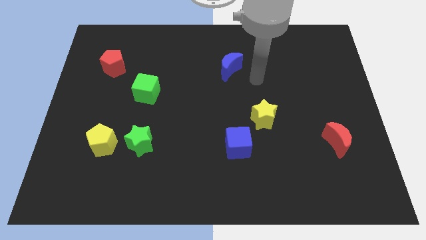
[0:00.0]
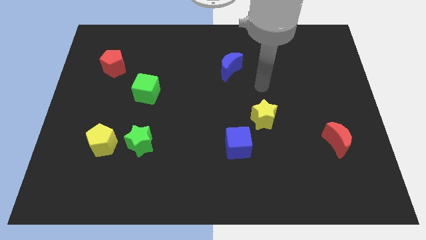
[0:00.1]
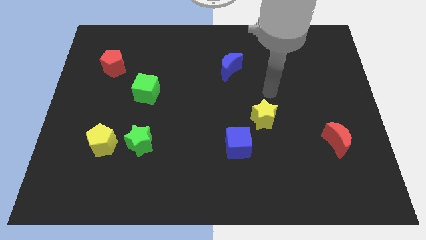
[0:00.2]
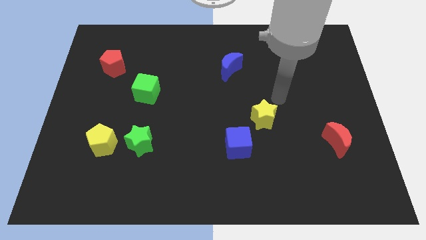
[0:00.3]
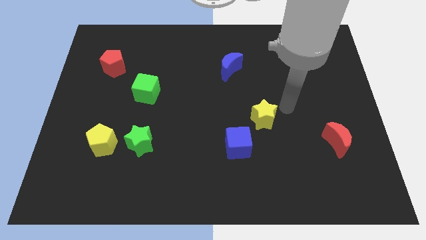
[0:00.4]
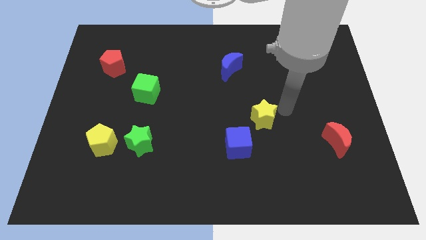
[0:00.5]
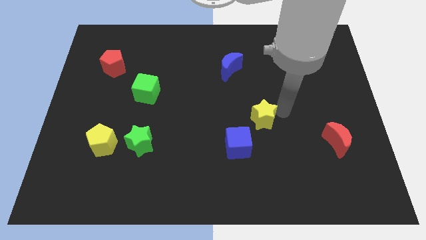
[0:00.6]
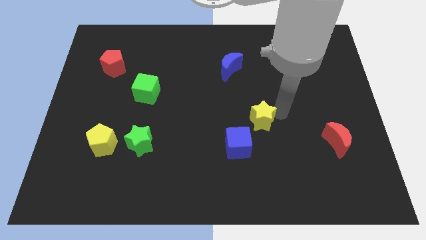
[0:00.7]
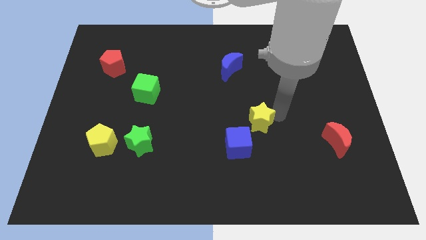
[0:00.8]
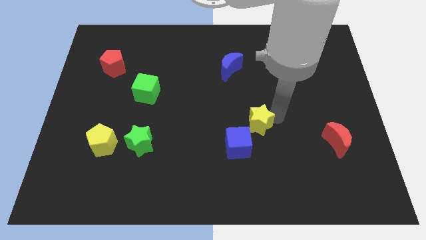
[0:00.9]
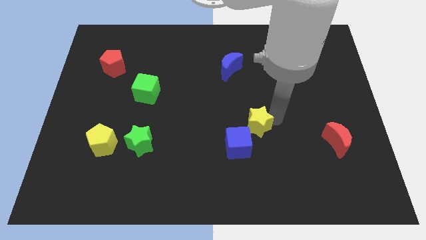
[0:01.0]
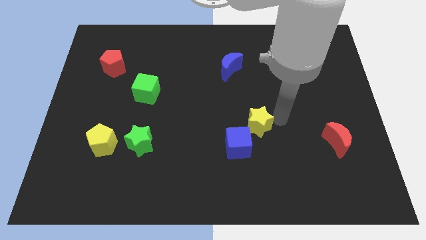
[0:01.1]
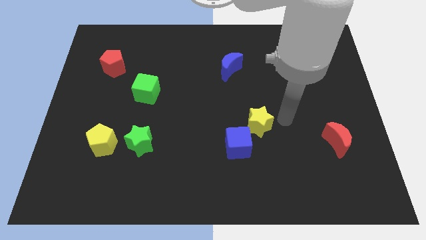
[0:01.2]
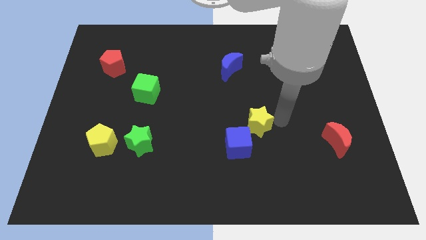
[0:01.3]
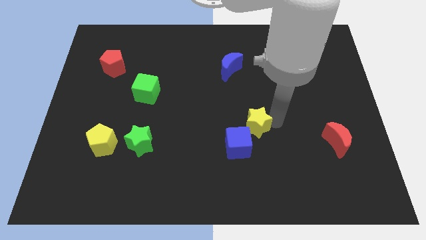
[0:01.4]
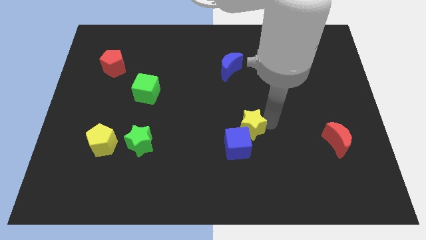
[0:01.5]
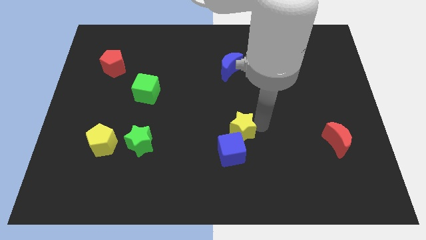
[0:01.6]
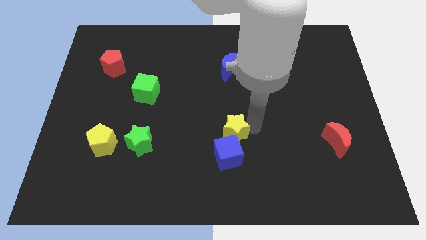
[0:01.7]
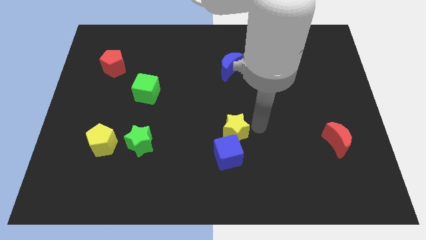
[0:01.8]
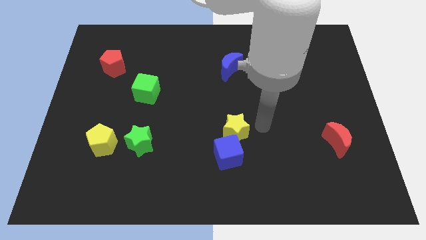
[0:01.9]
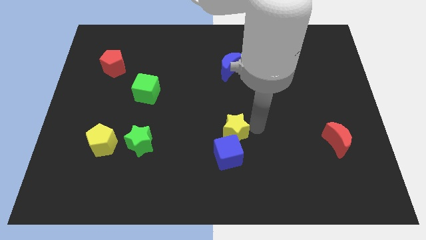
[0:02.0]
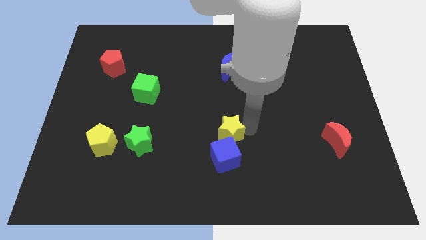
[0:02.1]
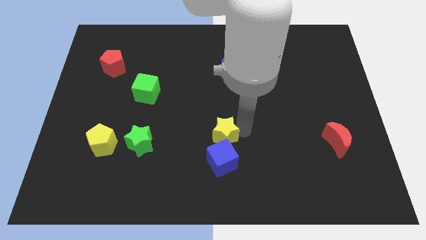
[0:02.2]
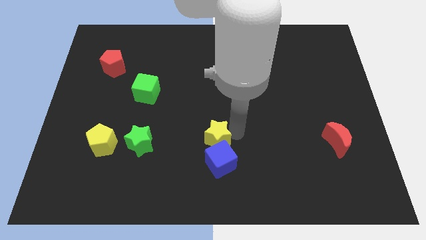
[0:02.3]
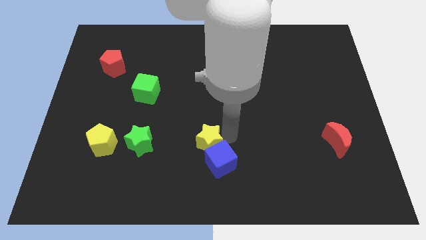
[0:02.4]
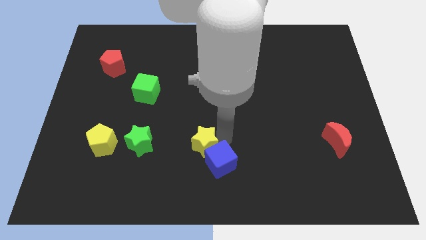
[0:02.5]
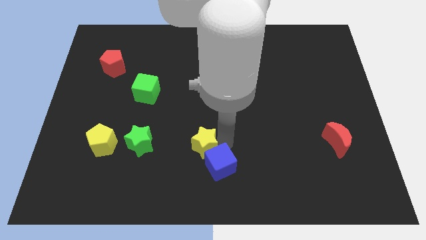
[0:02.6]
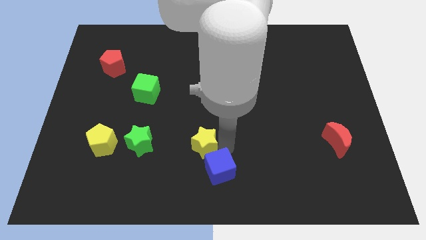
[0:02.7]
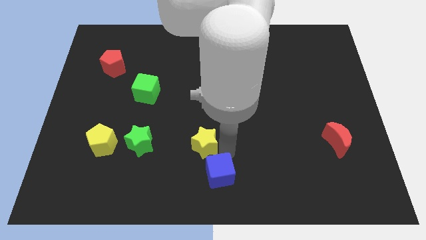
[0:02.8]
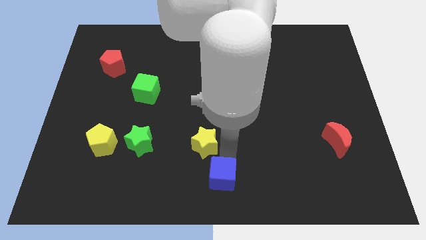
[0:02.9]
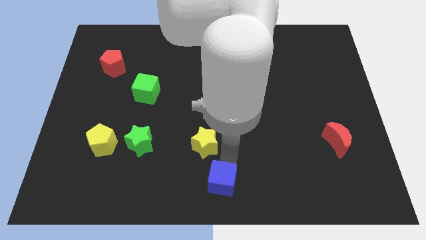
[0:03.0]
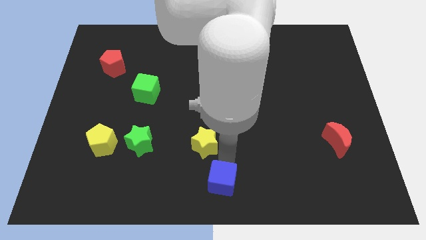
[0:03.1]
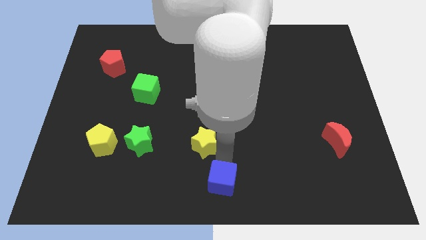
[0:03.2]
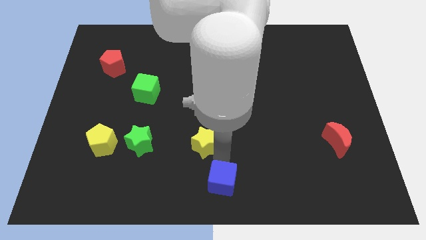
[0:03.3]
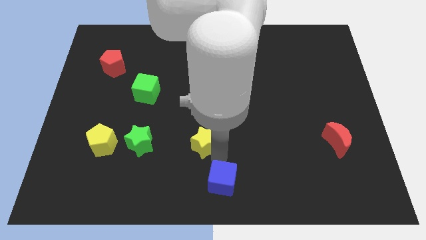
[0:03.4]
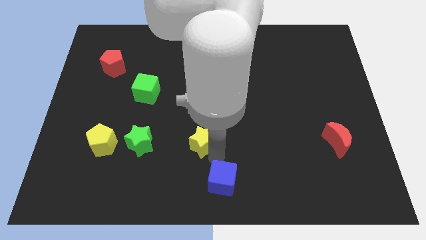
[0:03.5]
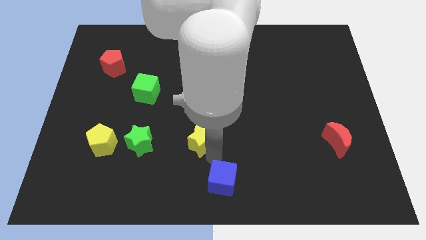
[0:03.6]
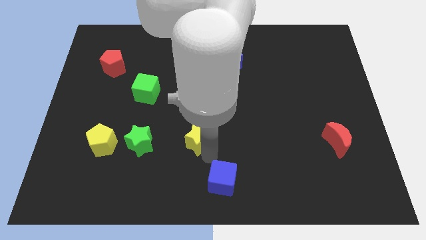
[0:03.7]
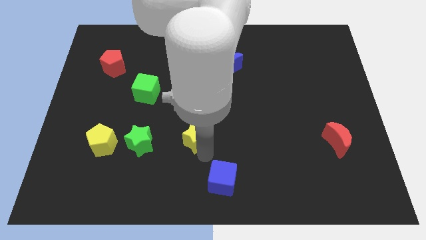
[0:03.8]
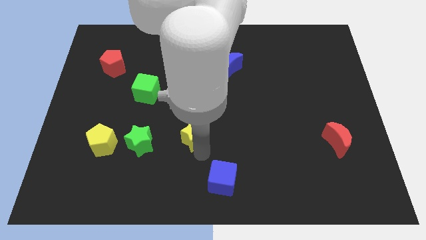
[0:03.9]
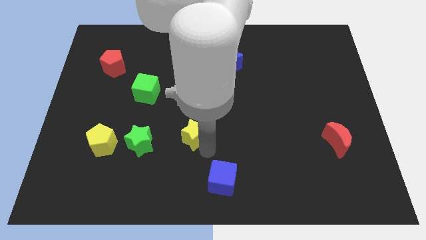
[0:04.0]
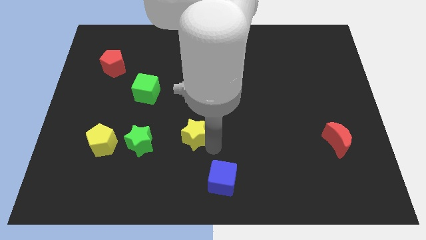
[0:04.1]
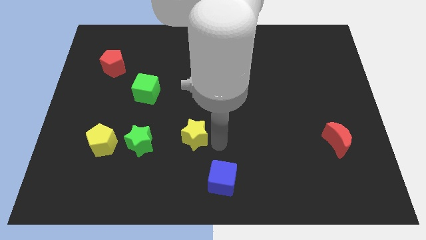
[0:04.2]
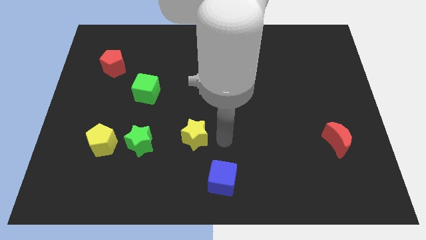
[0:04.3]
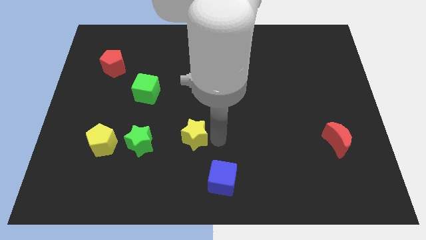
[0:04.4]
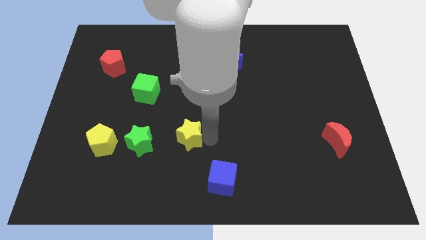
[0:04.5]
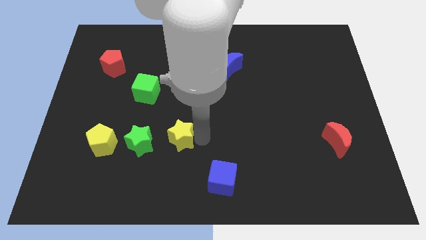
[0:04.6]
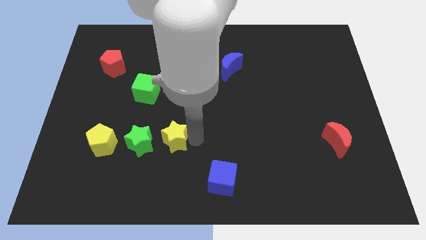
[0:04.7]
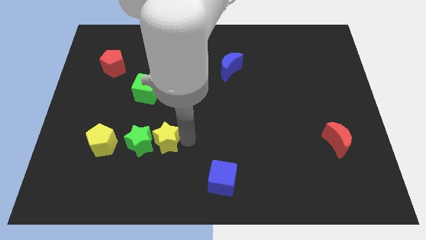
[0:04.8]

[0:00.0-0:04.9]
put the yellow star next to the green star

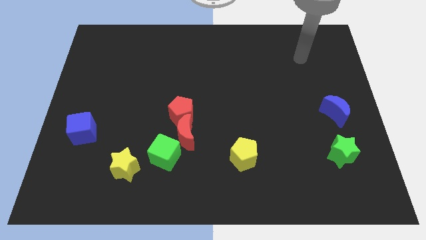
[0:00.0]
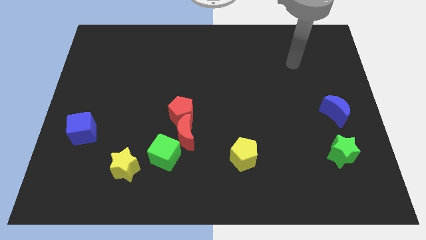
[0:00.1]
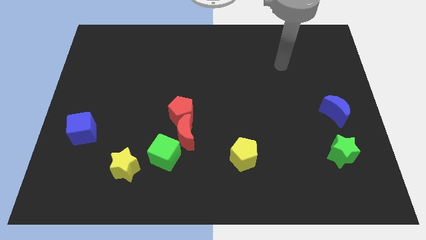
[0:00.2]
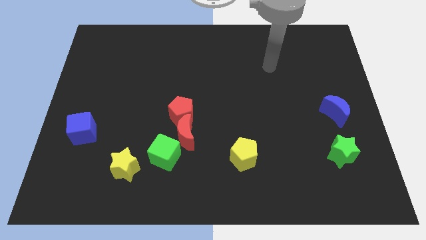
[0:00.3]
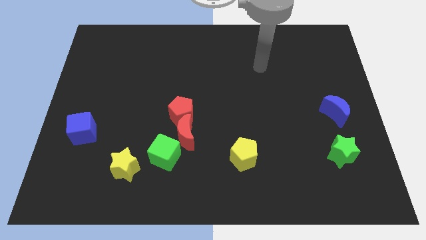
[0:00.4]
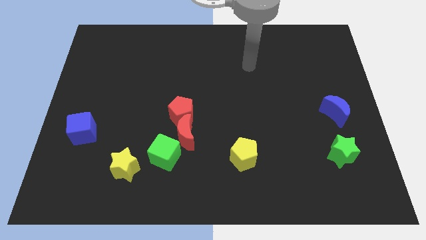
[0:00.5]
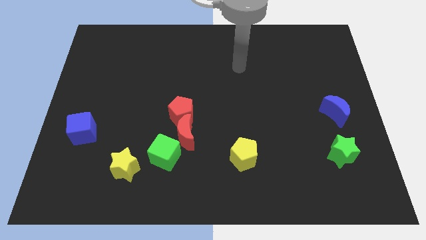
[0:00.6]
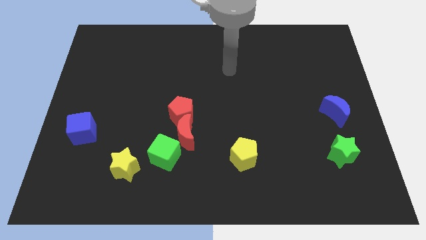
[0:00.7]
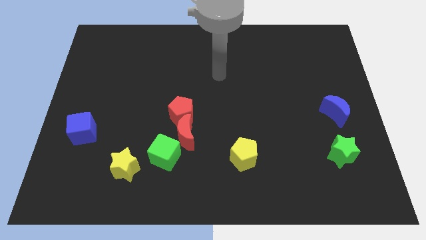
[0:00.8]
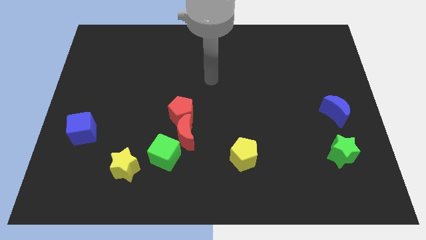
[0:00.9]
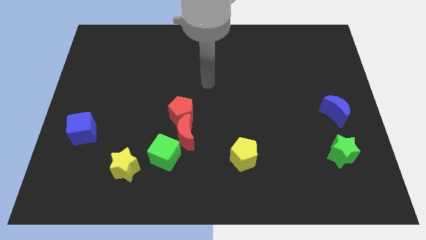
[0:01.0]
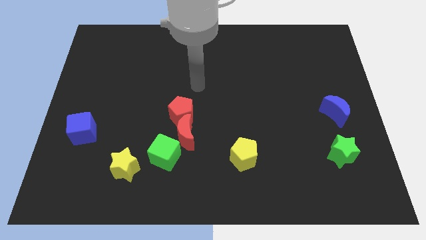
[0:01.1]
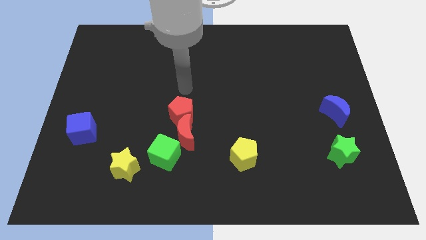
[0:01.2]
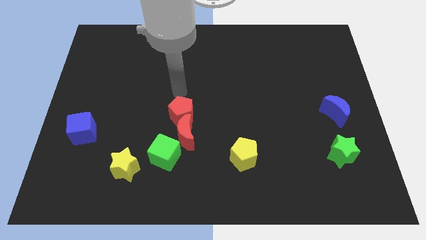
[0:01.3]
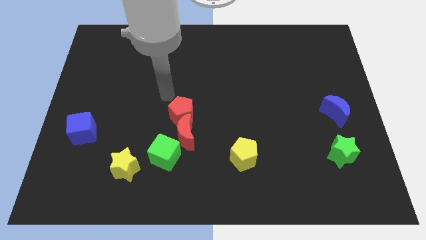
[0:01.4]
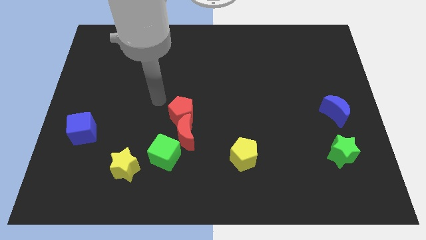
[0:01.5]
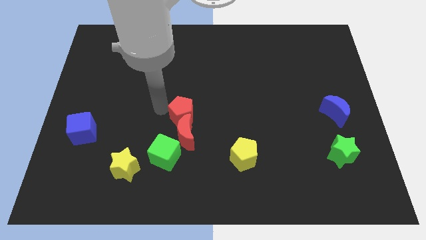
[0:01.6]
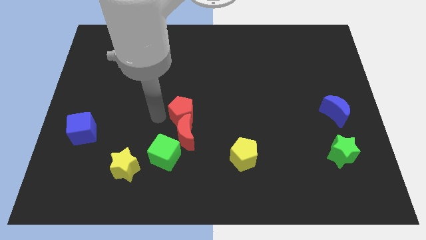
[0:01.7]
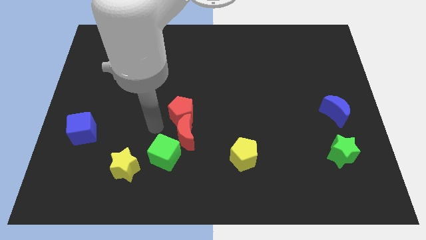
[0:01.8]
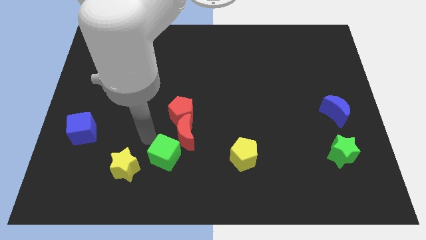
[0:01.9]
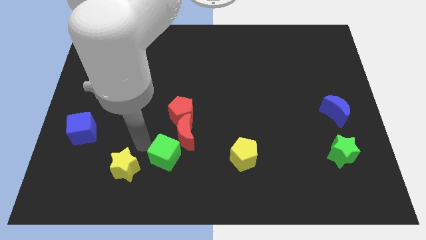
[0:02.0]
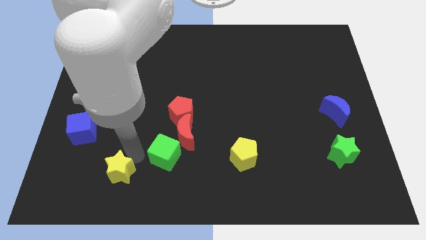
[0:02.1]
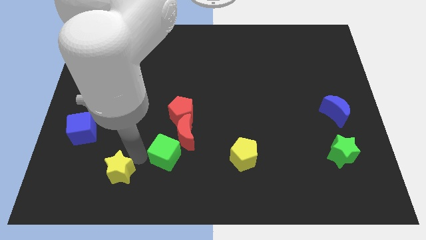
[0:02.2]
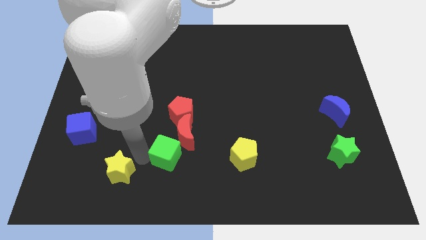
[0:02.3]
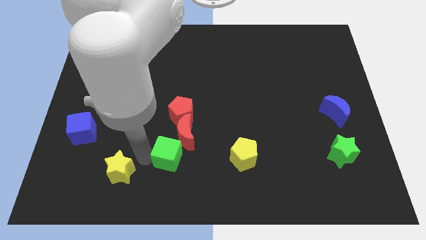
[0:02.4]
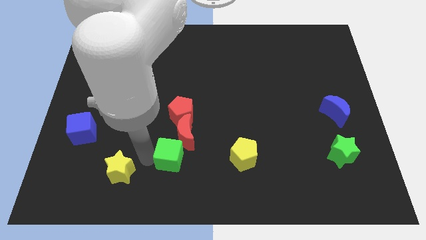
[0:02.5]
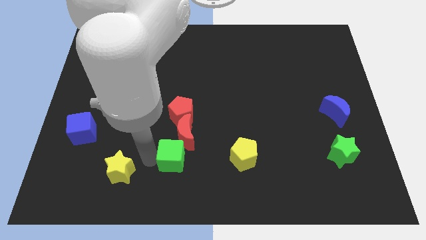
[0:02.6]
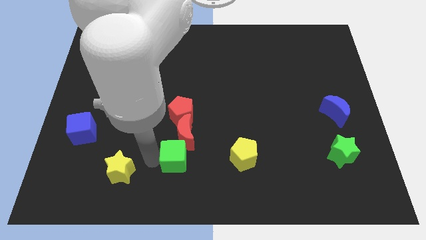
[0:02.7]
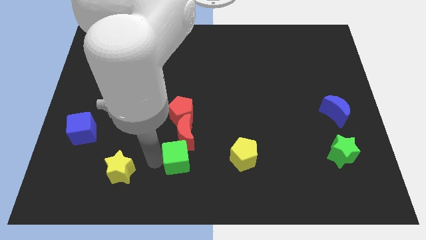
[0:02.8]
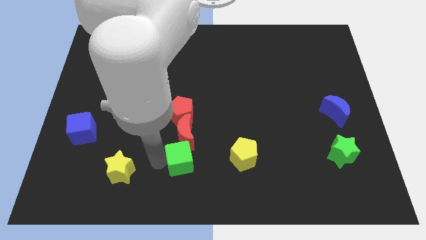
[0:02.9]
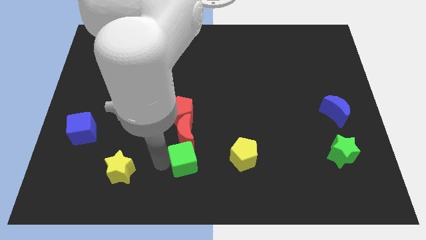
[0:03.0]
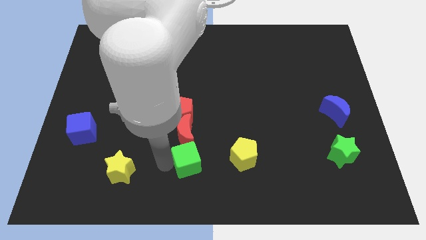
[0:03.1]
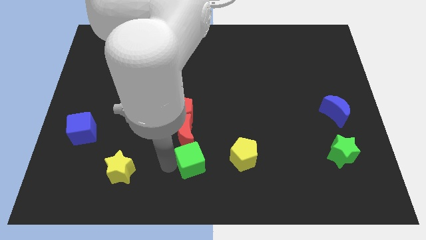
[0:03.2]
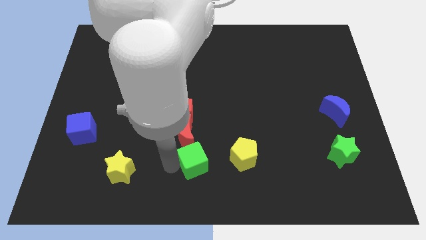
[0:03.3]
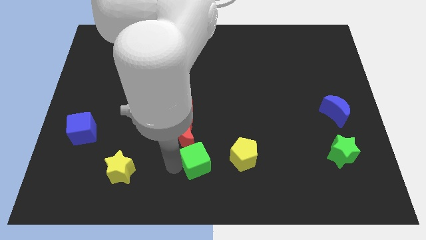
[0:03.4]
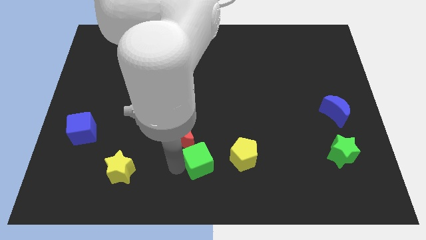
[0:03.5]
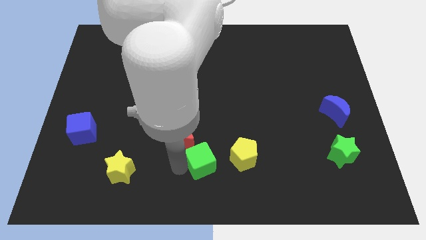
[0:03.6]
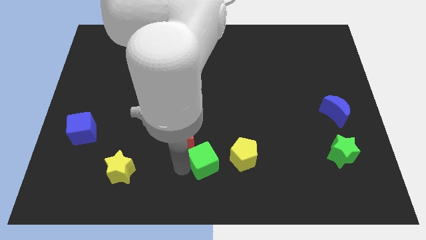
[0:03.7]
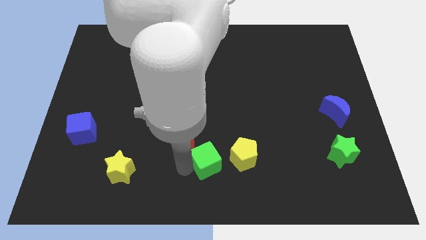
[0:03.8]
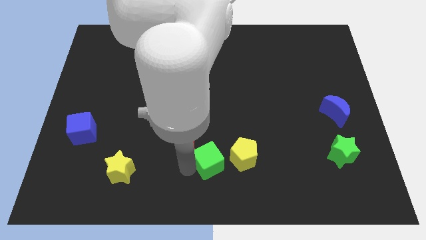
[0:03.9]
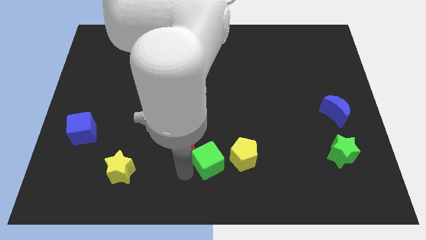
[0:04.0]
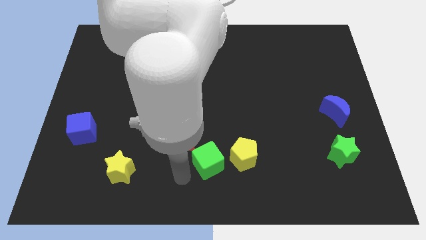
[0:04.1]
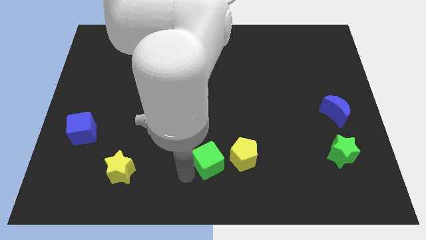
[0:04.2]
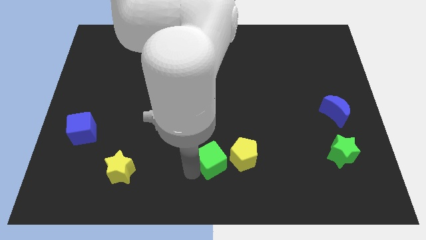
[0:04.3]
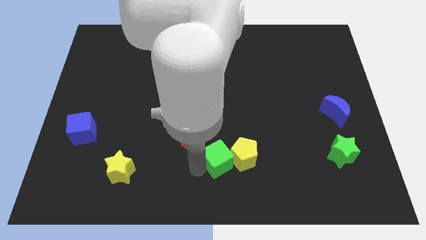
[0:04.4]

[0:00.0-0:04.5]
put the green cube next to the yellow pentagon
